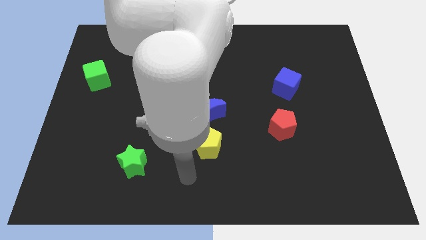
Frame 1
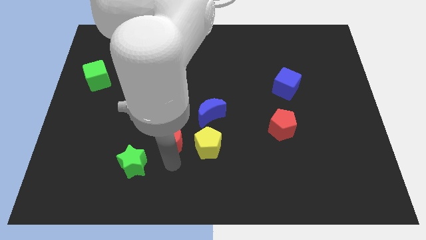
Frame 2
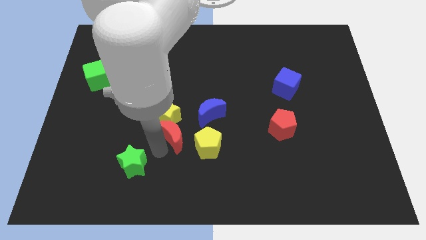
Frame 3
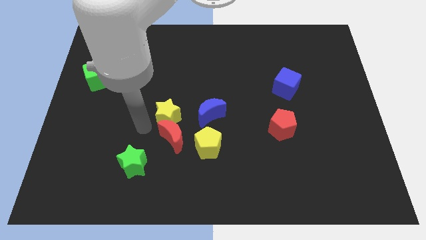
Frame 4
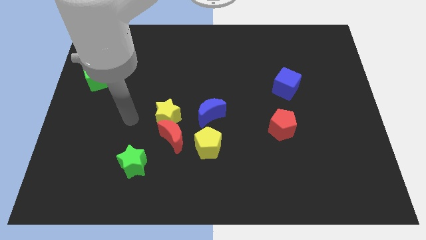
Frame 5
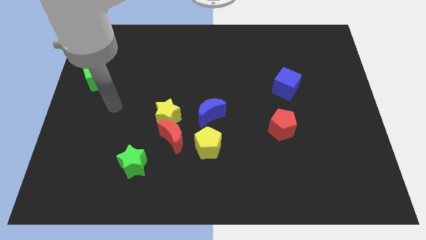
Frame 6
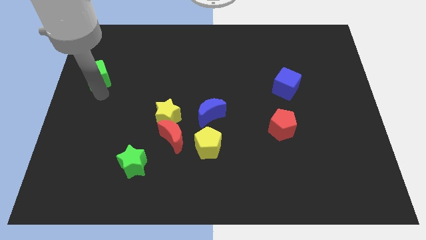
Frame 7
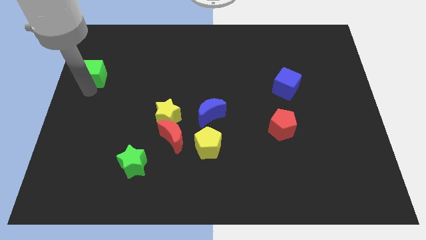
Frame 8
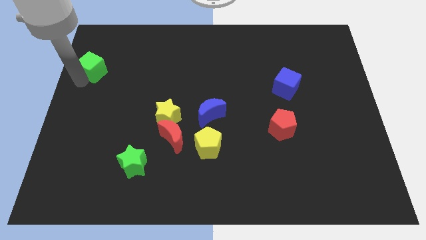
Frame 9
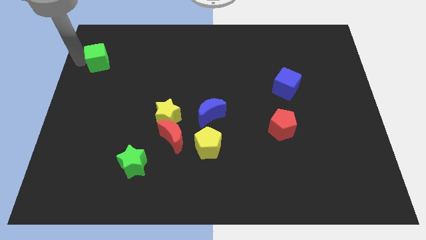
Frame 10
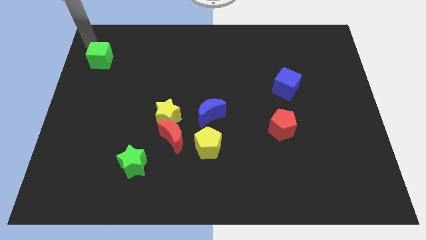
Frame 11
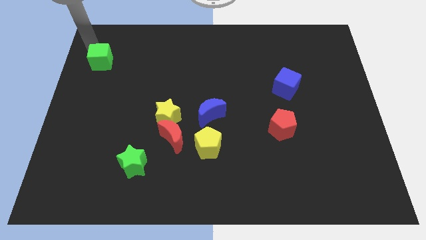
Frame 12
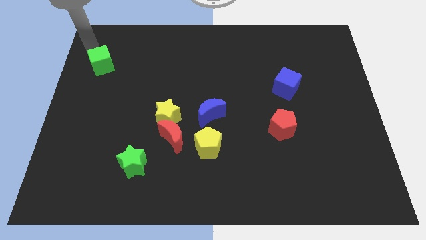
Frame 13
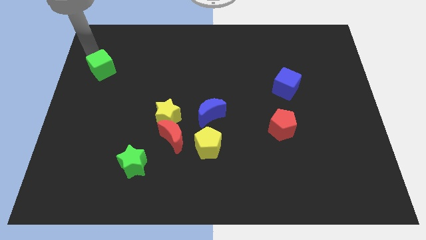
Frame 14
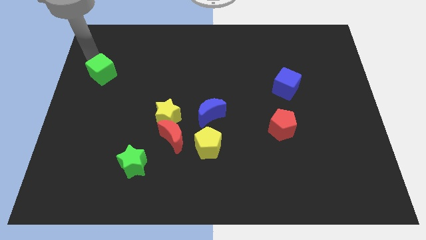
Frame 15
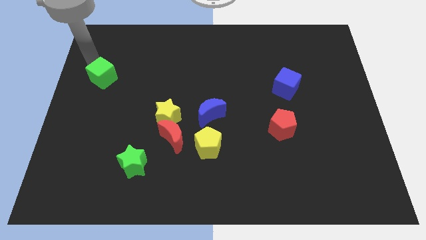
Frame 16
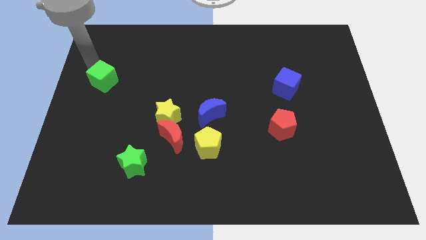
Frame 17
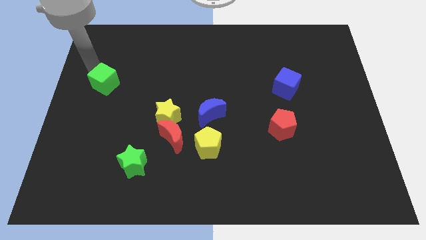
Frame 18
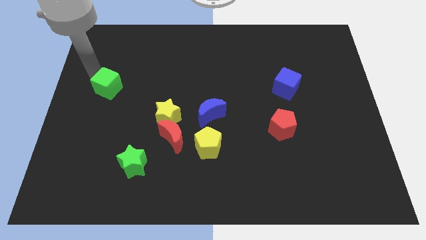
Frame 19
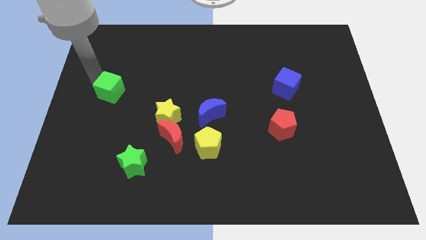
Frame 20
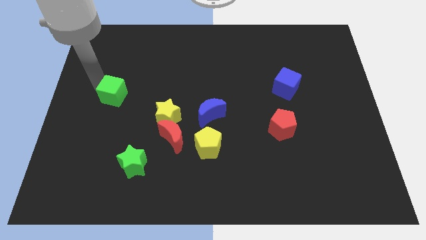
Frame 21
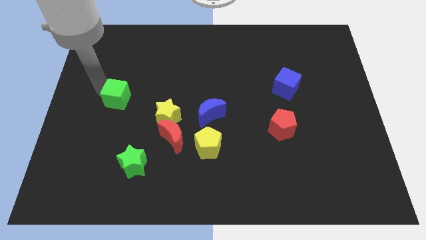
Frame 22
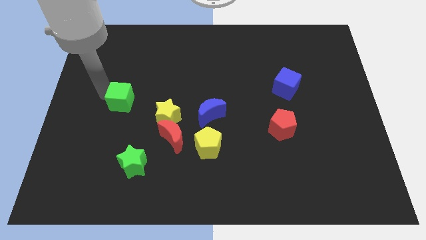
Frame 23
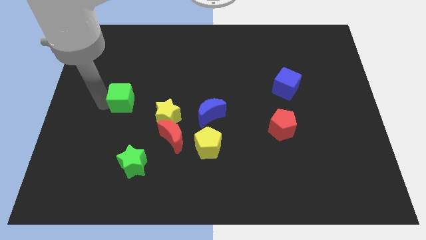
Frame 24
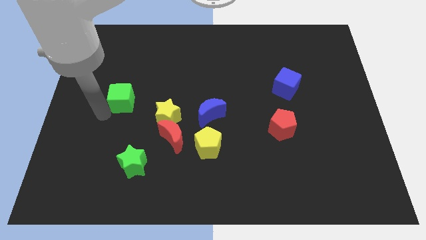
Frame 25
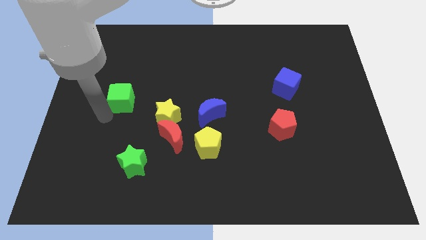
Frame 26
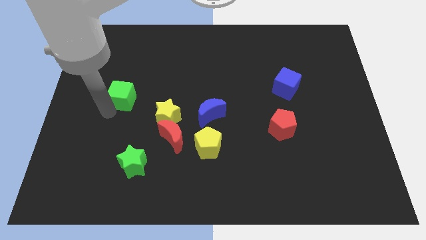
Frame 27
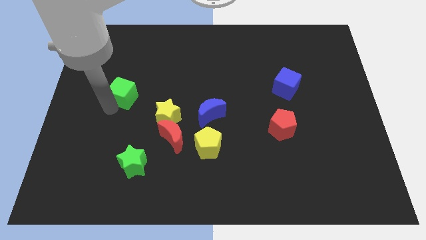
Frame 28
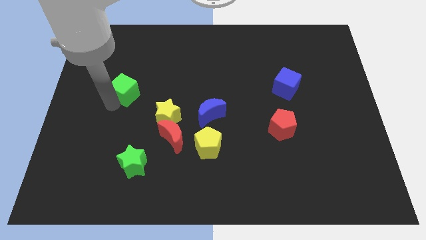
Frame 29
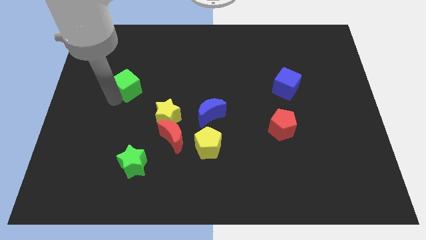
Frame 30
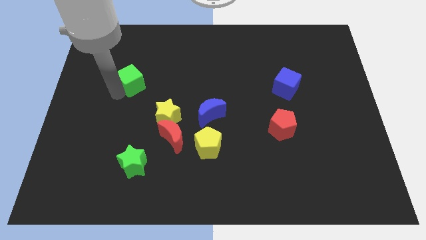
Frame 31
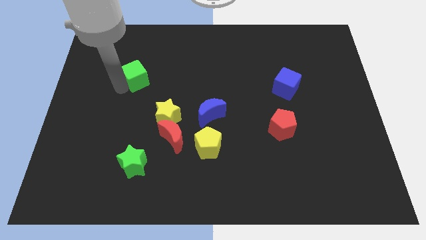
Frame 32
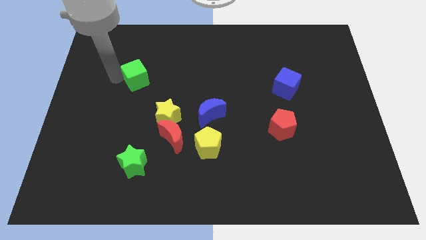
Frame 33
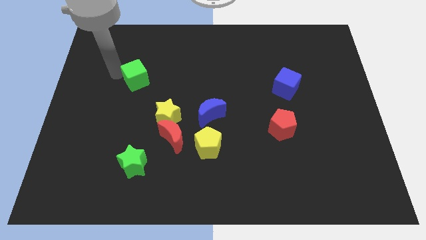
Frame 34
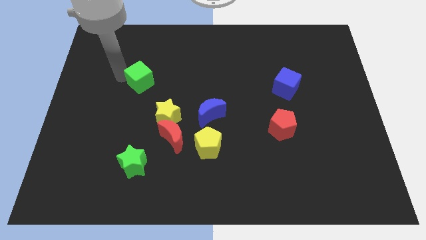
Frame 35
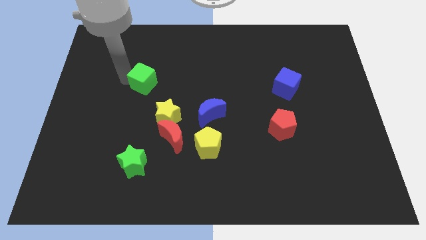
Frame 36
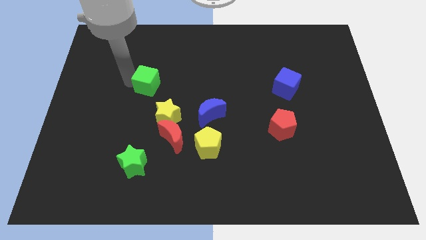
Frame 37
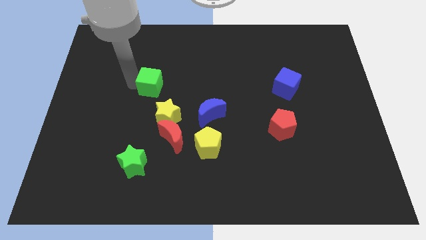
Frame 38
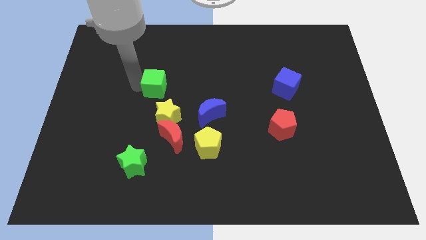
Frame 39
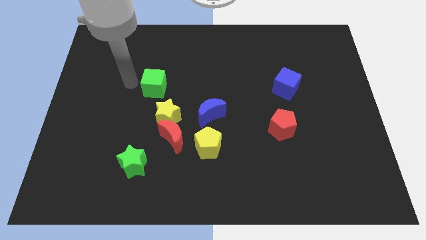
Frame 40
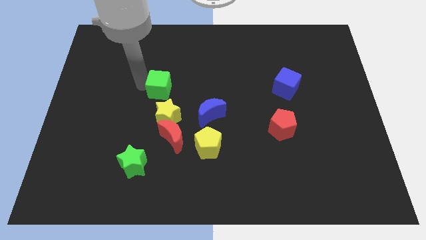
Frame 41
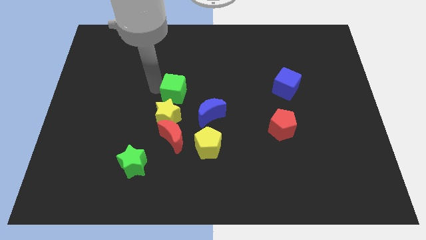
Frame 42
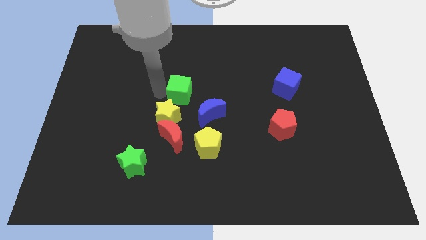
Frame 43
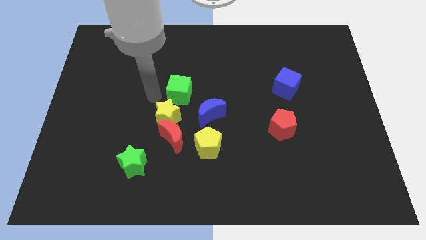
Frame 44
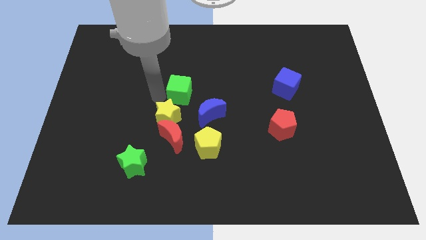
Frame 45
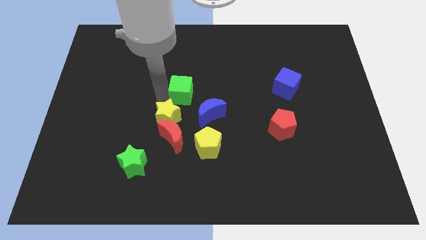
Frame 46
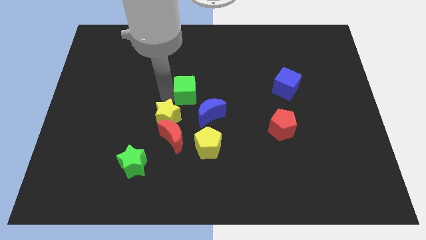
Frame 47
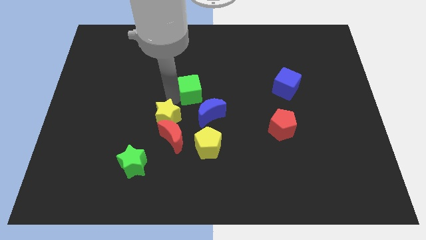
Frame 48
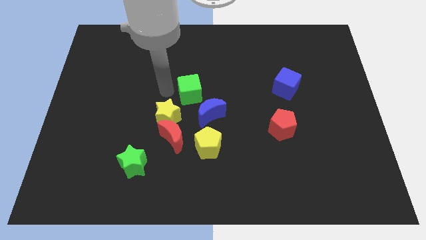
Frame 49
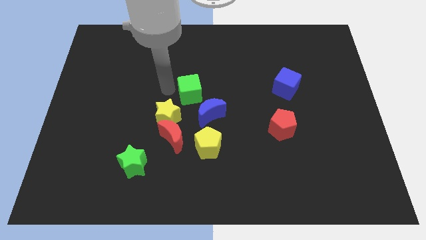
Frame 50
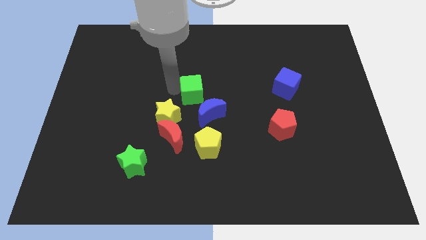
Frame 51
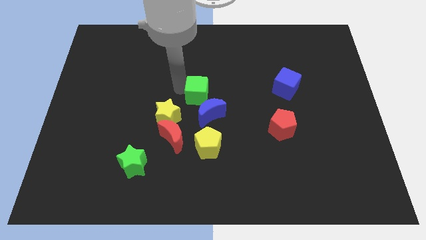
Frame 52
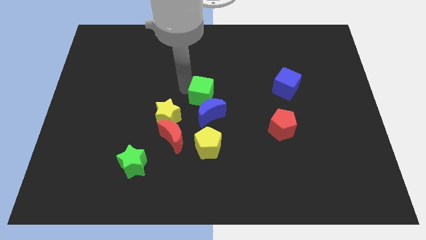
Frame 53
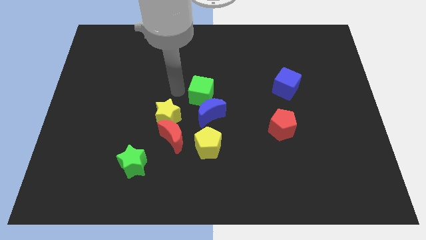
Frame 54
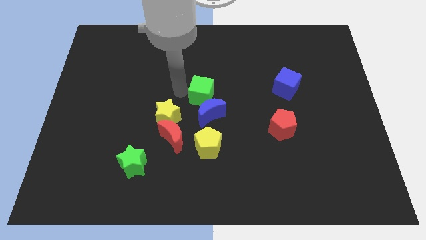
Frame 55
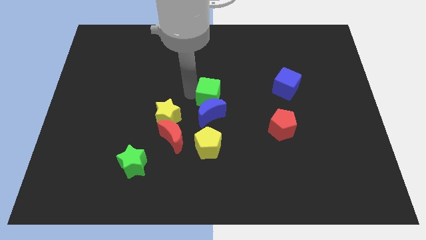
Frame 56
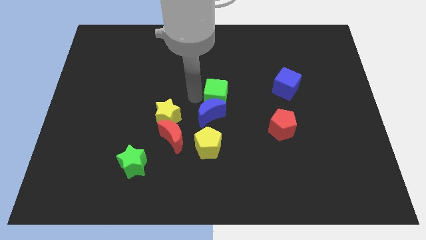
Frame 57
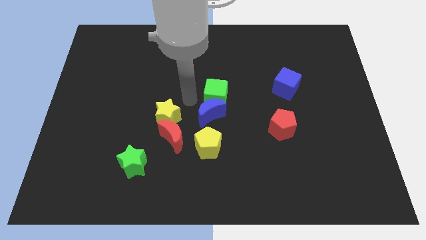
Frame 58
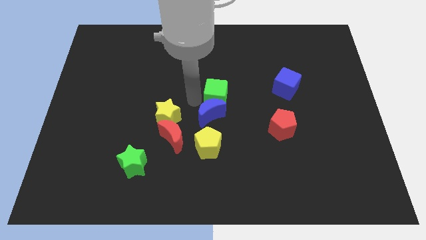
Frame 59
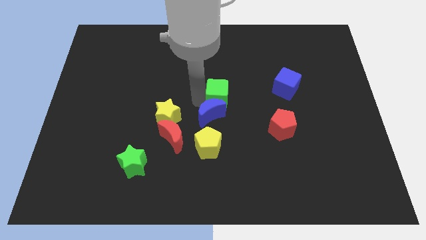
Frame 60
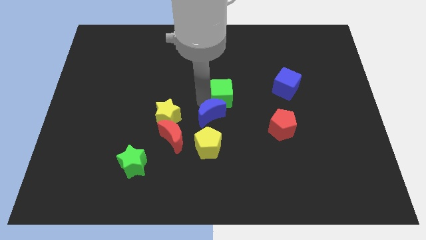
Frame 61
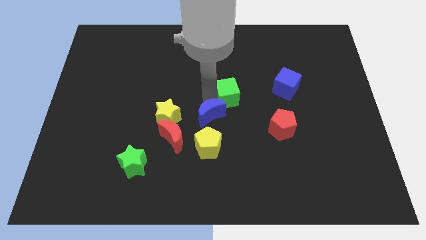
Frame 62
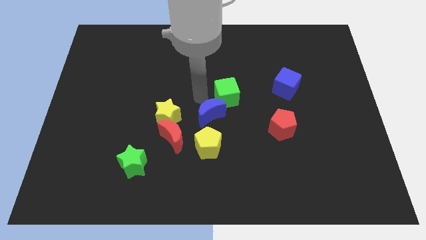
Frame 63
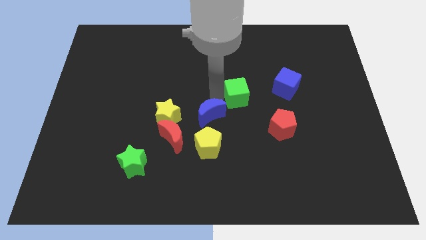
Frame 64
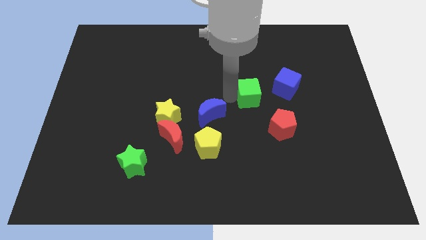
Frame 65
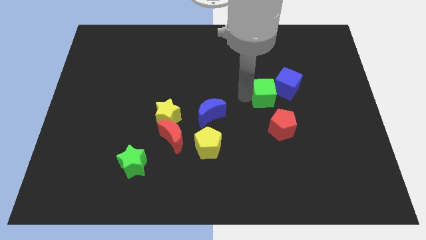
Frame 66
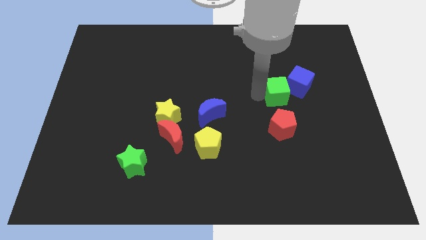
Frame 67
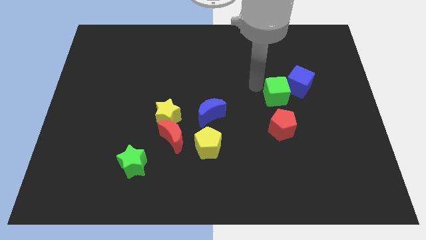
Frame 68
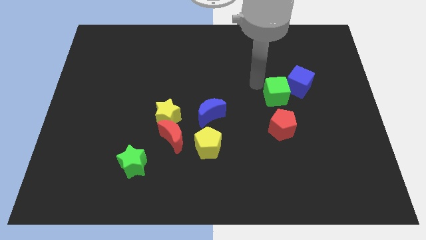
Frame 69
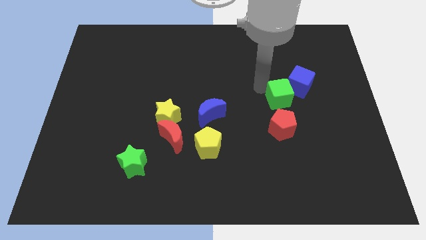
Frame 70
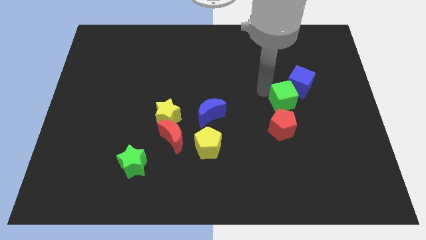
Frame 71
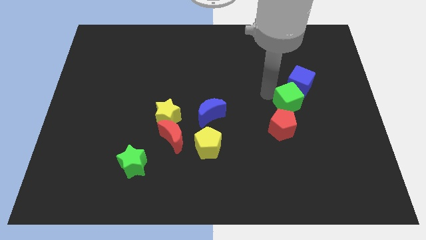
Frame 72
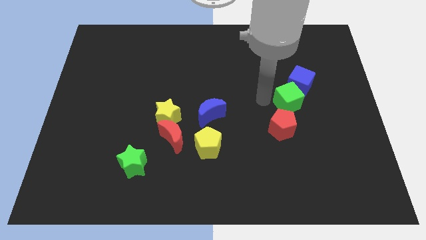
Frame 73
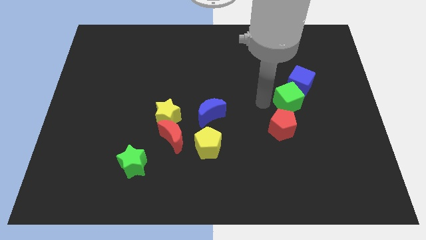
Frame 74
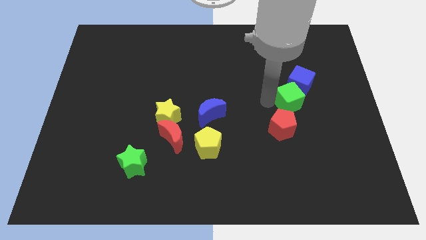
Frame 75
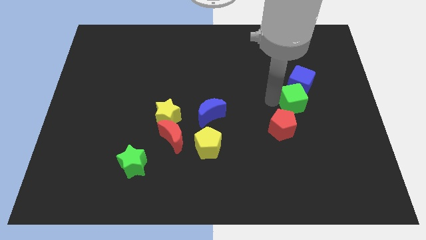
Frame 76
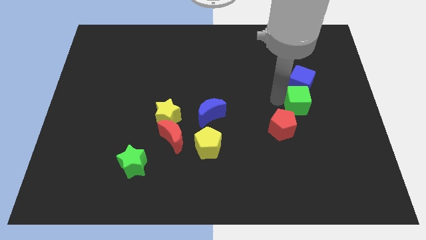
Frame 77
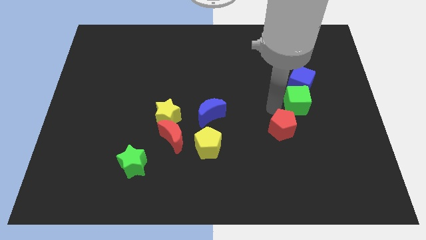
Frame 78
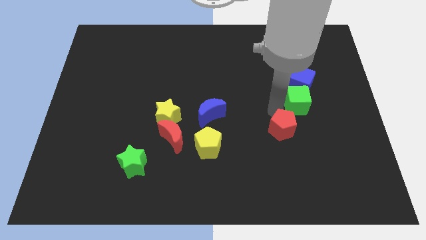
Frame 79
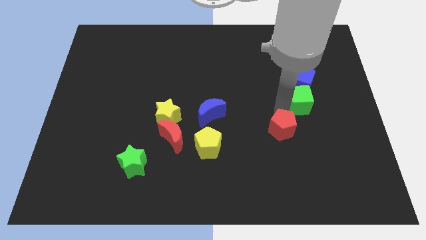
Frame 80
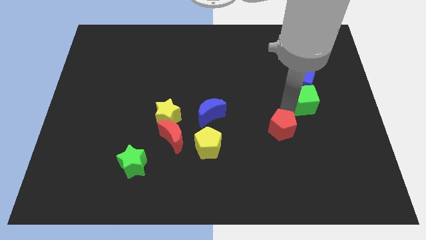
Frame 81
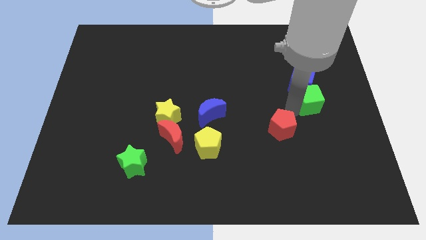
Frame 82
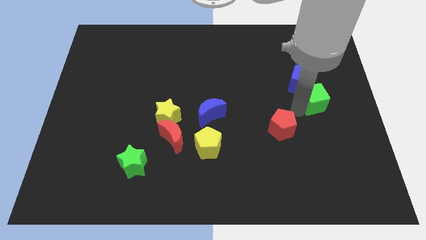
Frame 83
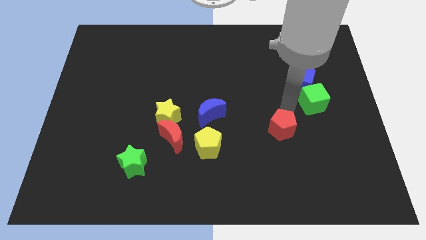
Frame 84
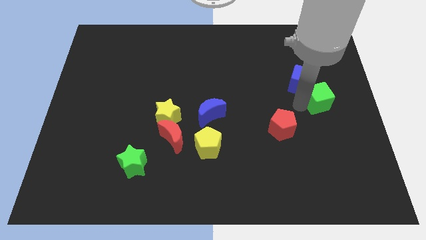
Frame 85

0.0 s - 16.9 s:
put the green cube to the center right
